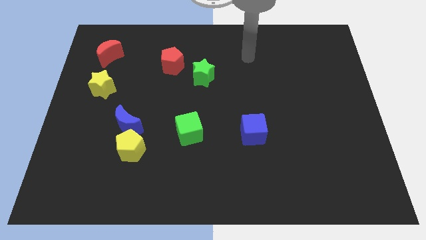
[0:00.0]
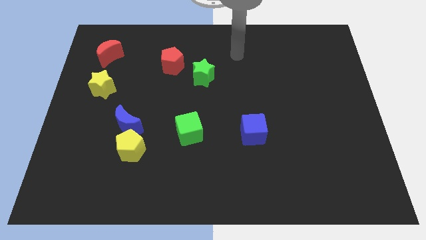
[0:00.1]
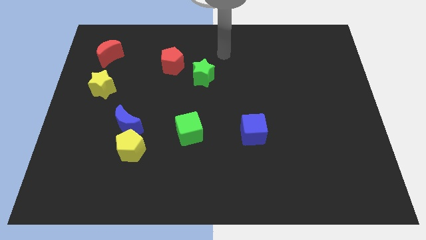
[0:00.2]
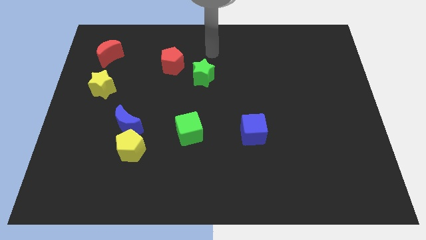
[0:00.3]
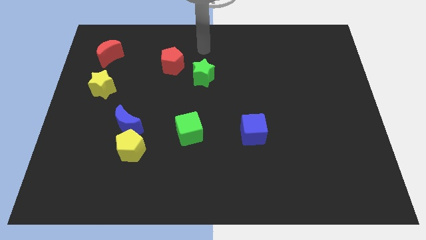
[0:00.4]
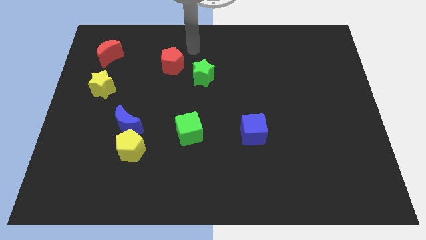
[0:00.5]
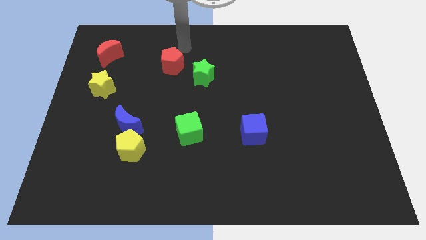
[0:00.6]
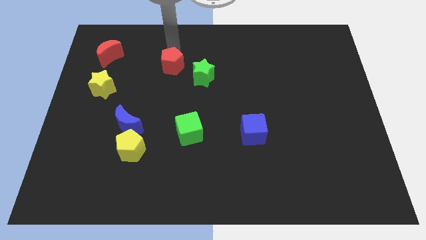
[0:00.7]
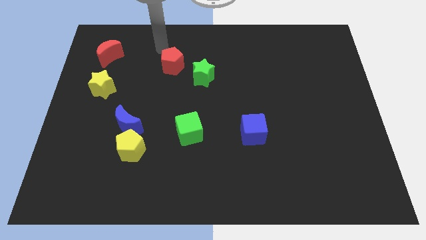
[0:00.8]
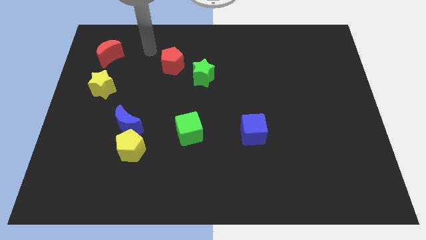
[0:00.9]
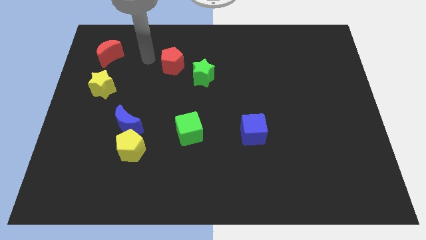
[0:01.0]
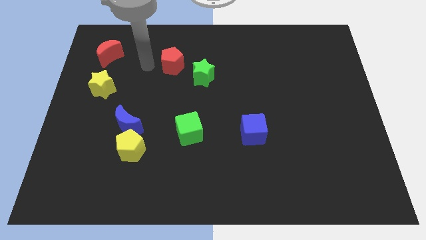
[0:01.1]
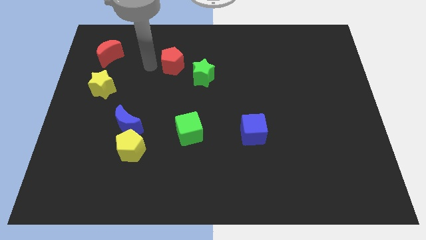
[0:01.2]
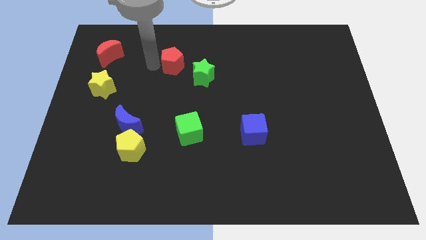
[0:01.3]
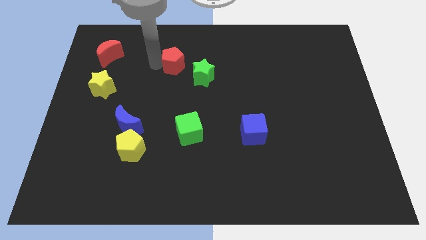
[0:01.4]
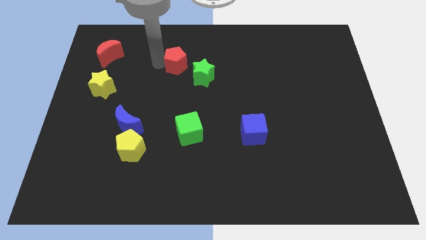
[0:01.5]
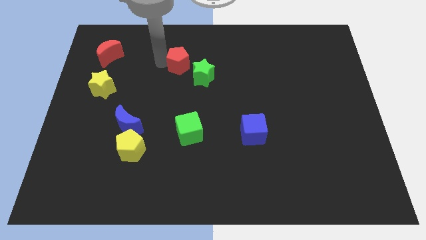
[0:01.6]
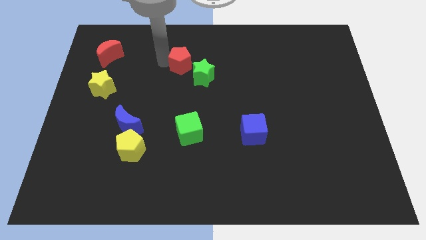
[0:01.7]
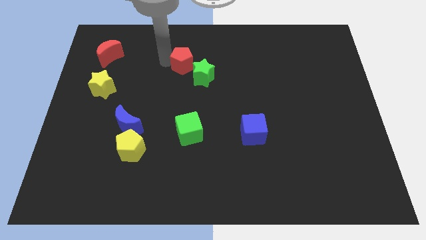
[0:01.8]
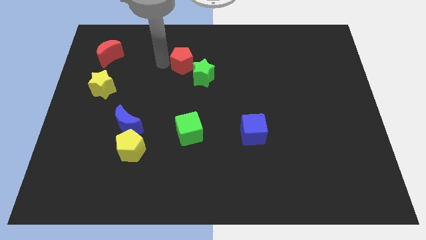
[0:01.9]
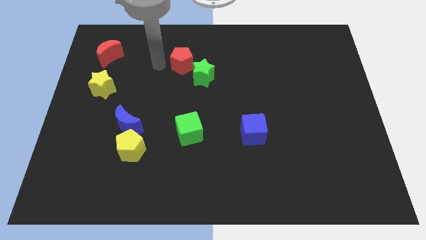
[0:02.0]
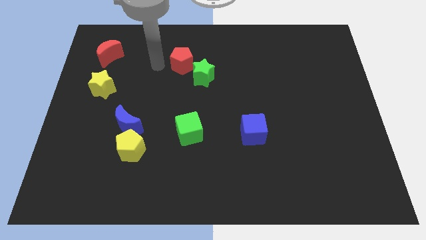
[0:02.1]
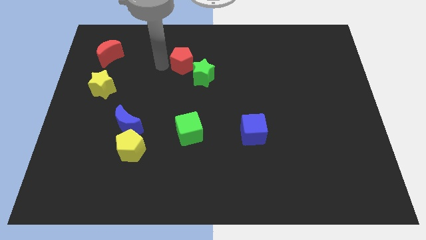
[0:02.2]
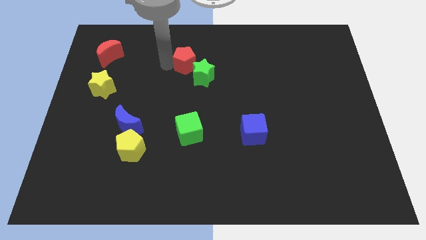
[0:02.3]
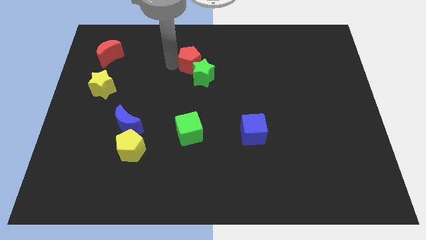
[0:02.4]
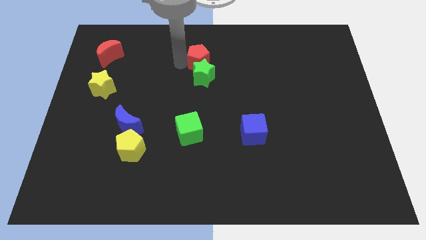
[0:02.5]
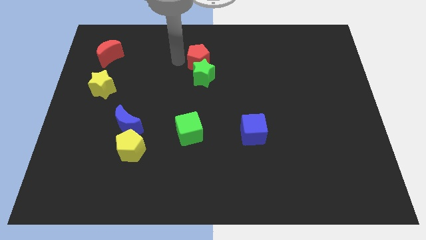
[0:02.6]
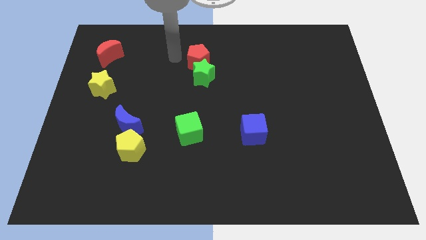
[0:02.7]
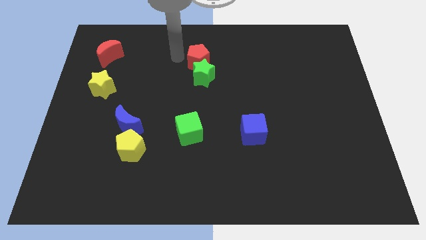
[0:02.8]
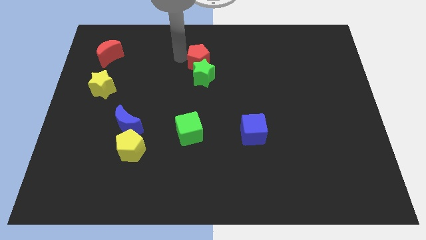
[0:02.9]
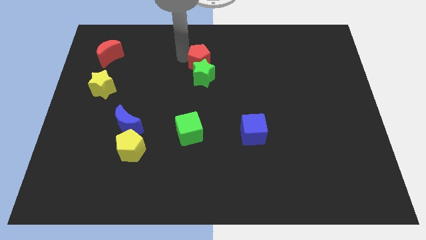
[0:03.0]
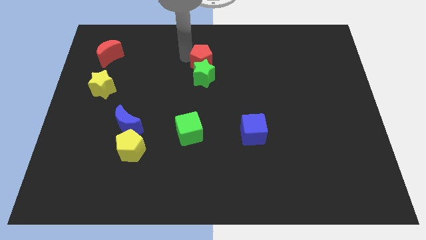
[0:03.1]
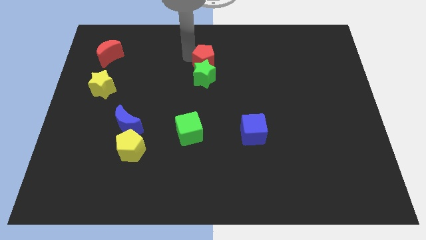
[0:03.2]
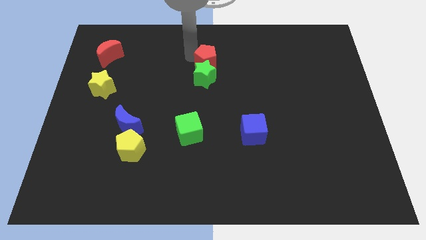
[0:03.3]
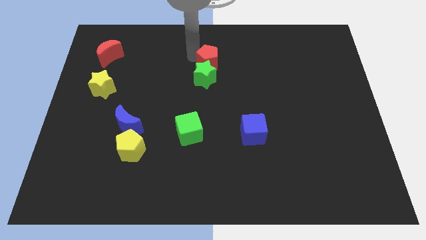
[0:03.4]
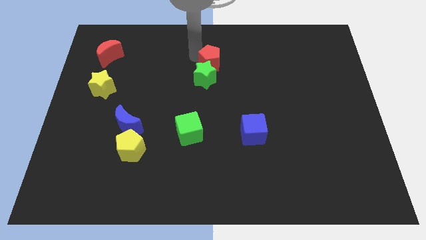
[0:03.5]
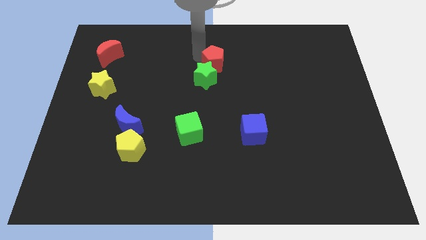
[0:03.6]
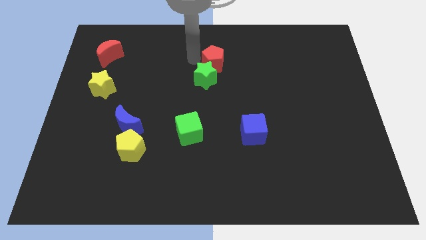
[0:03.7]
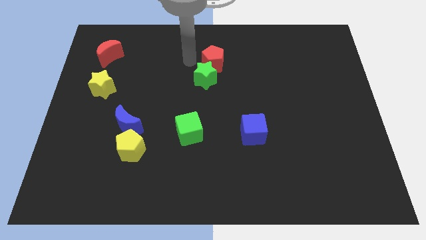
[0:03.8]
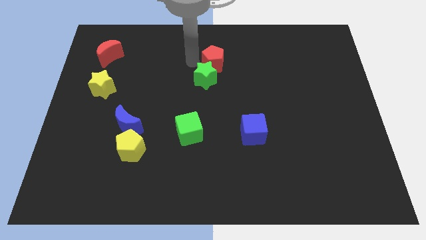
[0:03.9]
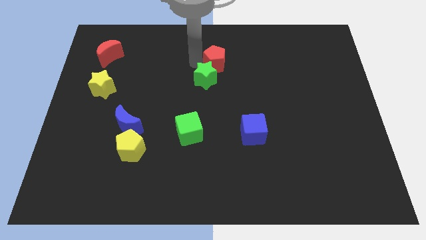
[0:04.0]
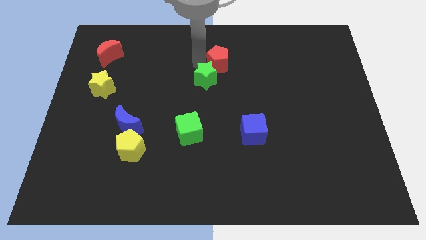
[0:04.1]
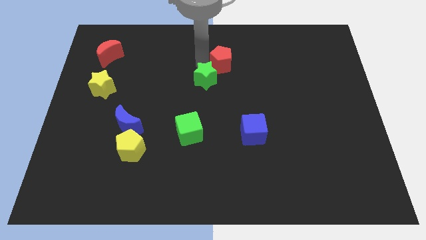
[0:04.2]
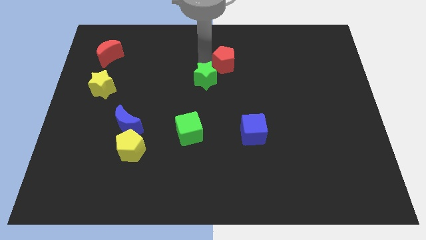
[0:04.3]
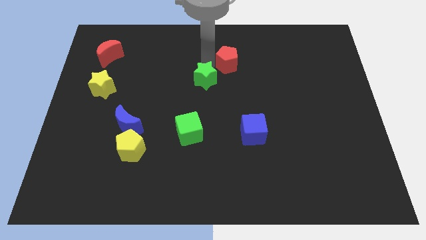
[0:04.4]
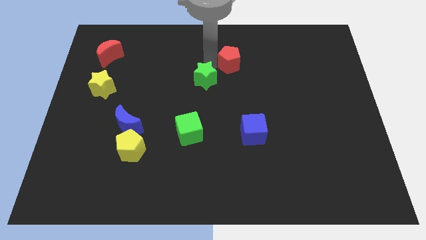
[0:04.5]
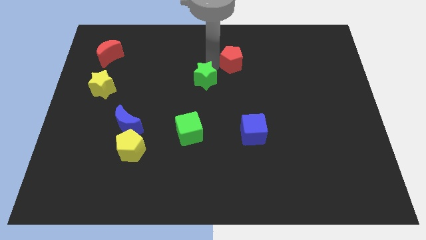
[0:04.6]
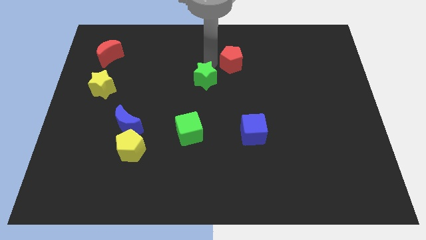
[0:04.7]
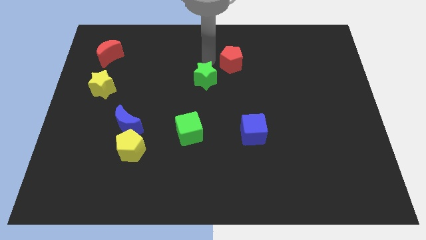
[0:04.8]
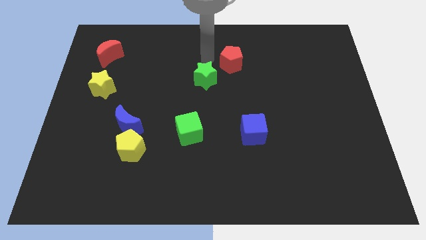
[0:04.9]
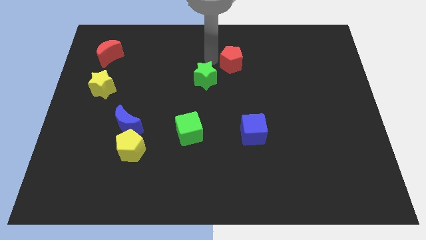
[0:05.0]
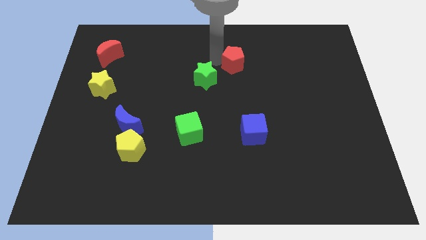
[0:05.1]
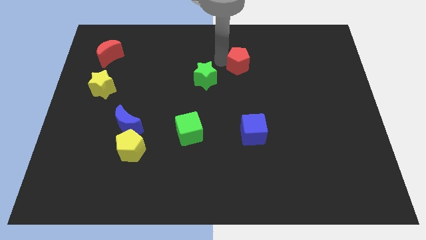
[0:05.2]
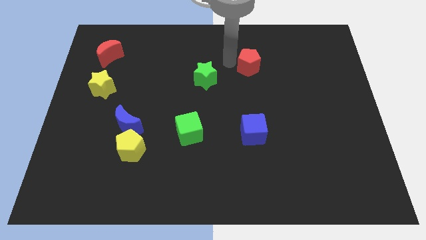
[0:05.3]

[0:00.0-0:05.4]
slide the red pentagon right

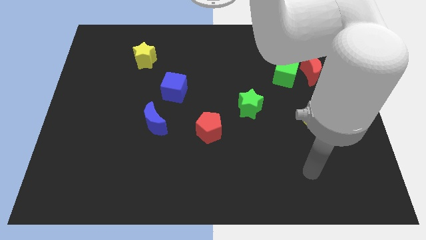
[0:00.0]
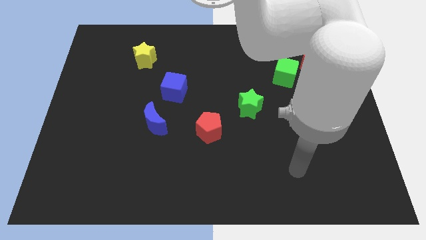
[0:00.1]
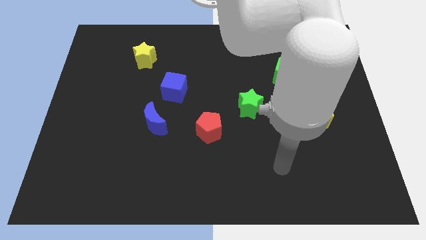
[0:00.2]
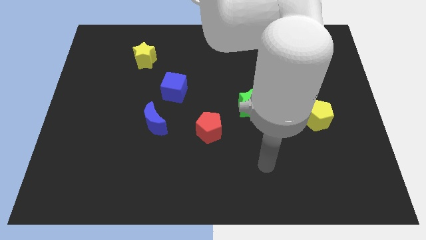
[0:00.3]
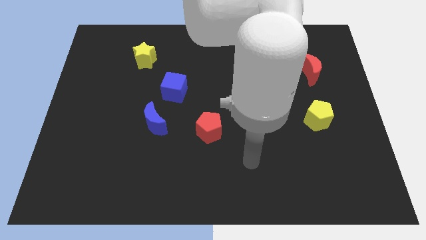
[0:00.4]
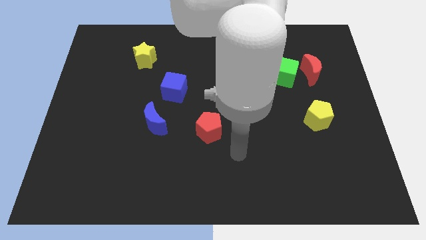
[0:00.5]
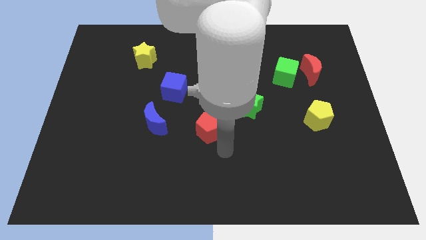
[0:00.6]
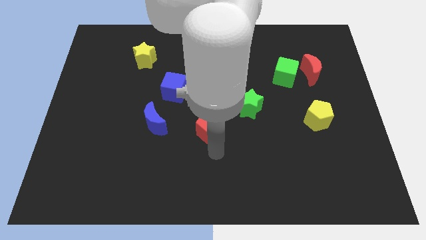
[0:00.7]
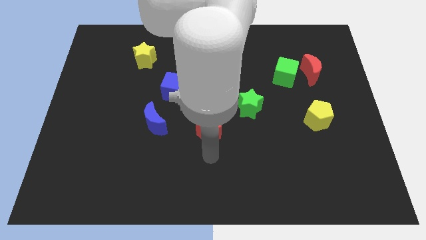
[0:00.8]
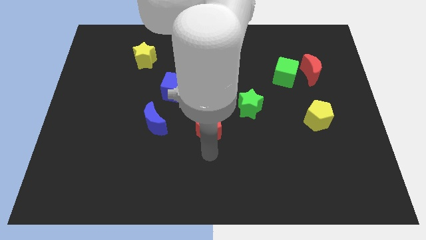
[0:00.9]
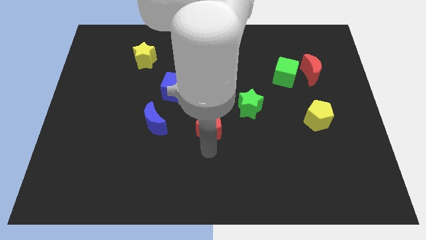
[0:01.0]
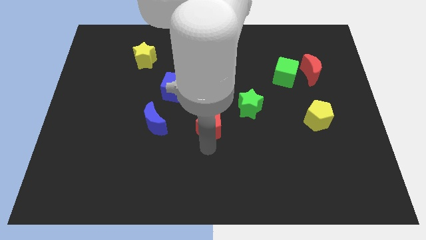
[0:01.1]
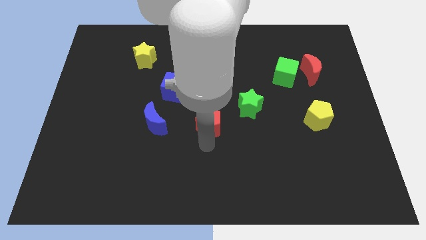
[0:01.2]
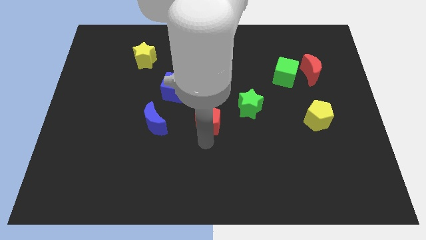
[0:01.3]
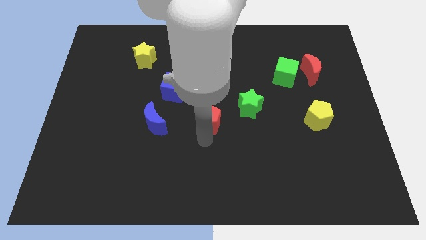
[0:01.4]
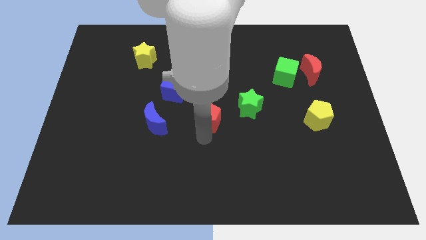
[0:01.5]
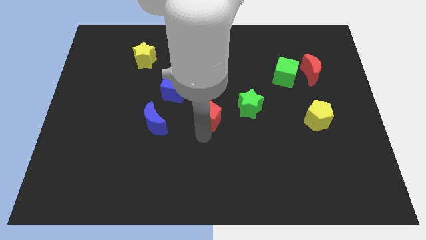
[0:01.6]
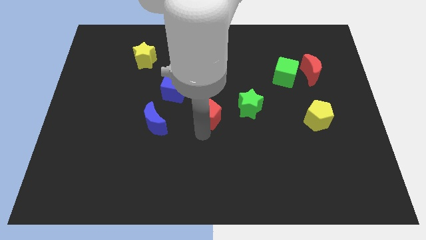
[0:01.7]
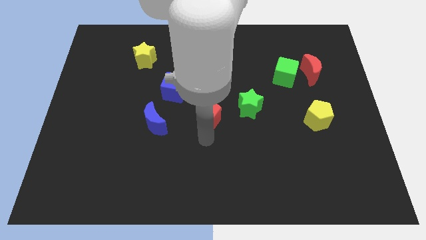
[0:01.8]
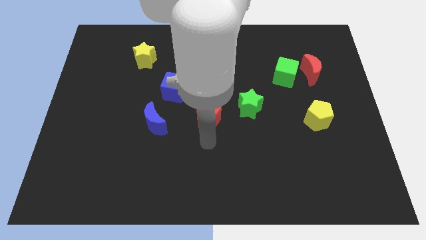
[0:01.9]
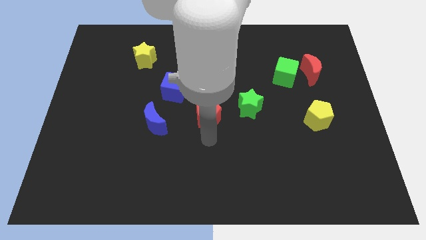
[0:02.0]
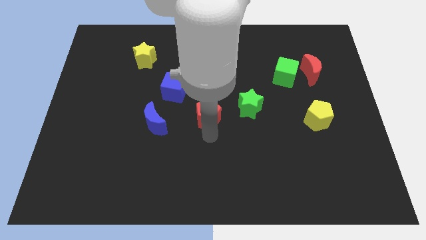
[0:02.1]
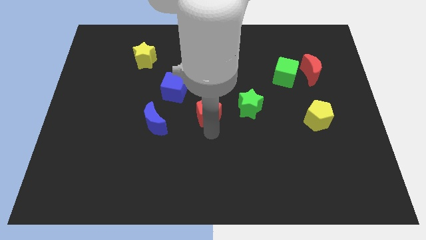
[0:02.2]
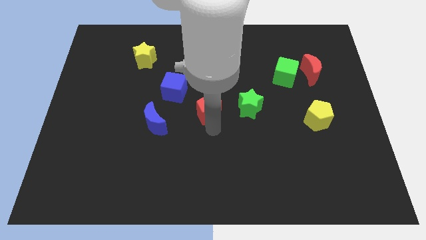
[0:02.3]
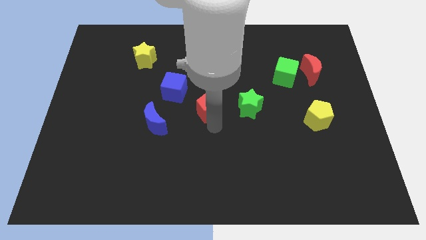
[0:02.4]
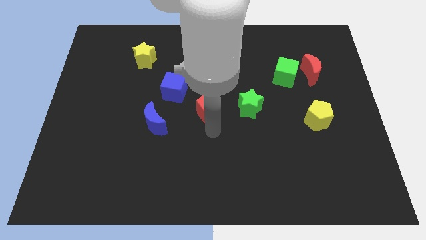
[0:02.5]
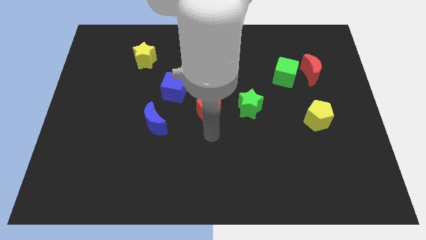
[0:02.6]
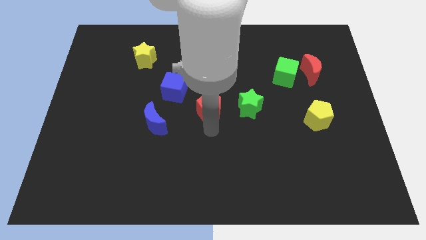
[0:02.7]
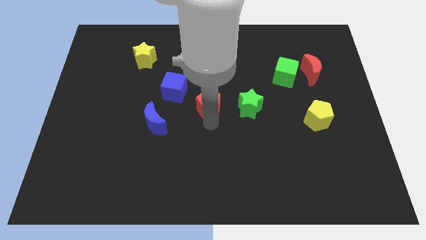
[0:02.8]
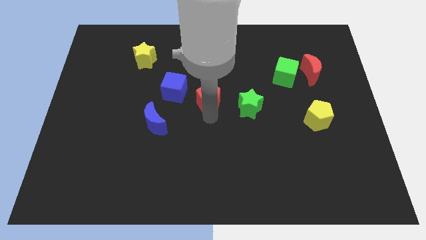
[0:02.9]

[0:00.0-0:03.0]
push the red pentagon somewhat upwards
